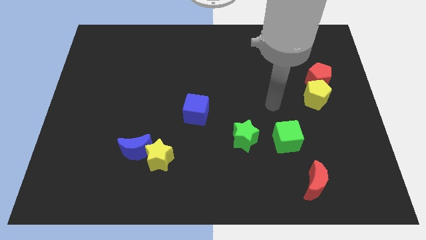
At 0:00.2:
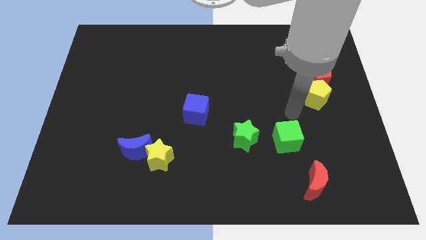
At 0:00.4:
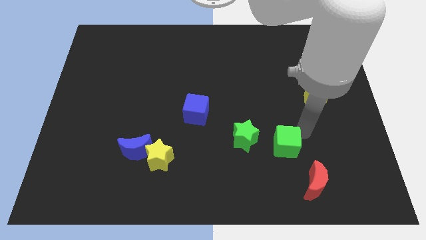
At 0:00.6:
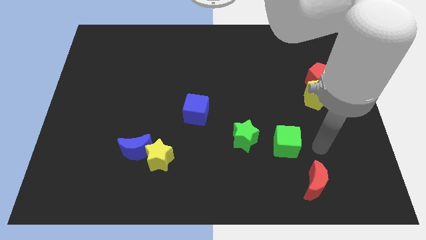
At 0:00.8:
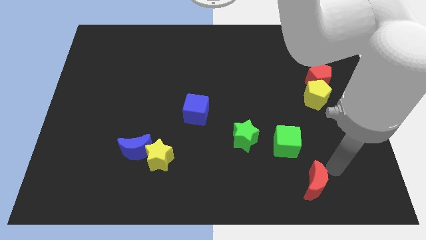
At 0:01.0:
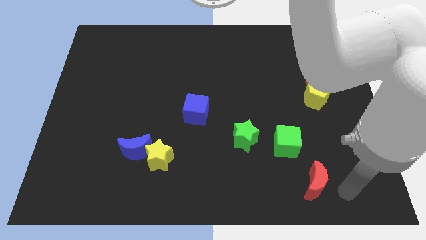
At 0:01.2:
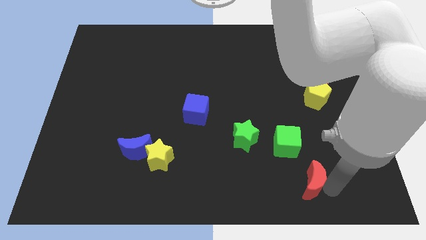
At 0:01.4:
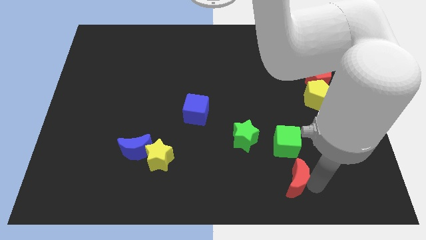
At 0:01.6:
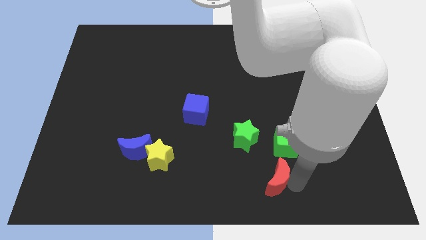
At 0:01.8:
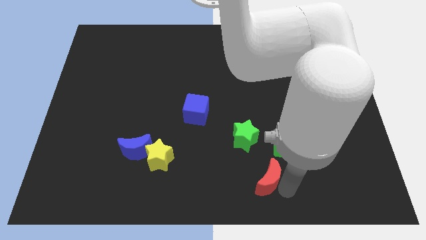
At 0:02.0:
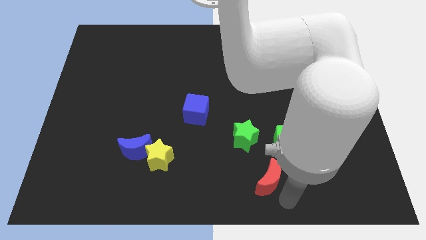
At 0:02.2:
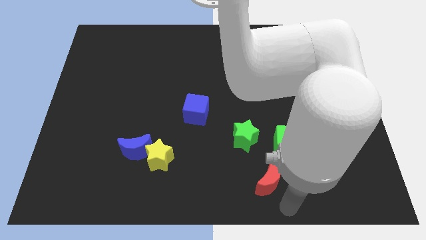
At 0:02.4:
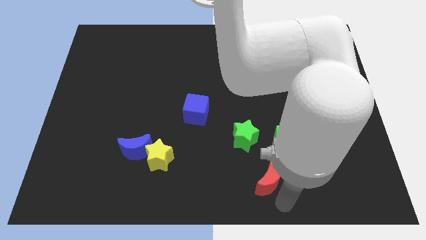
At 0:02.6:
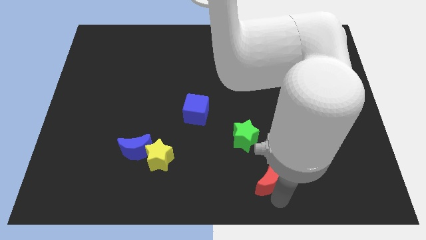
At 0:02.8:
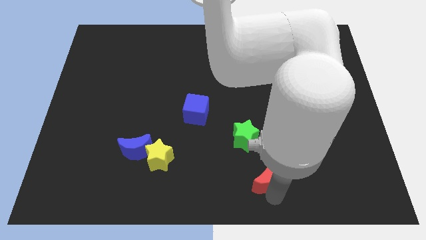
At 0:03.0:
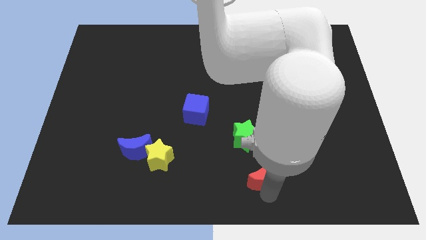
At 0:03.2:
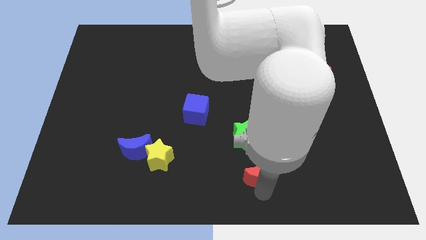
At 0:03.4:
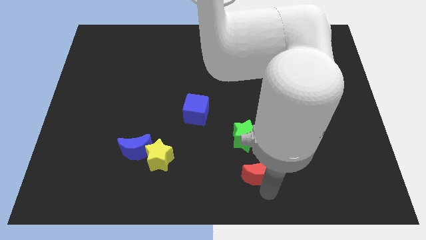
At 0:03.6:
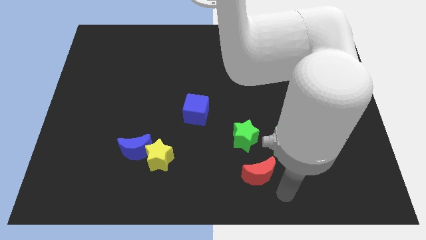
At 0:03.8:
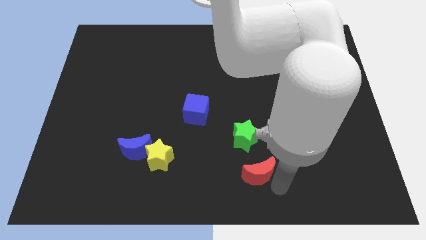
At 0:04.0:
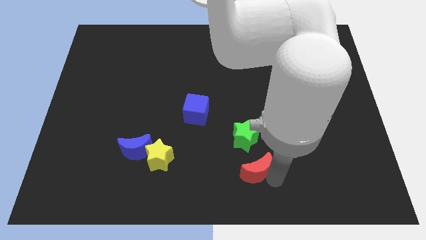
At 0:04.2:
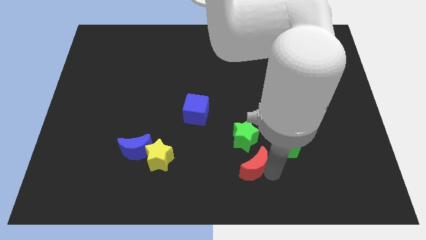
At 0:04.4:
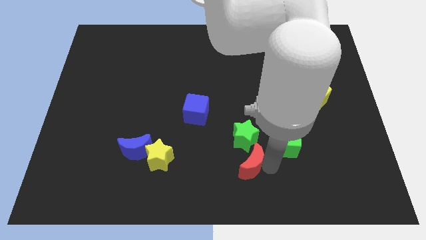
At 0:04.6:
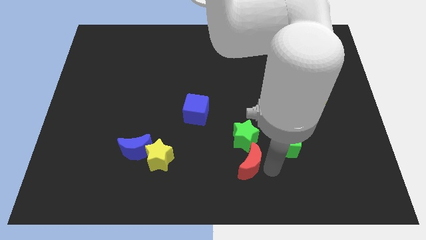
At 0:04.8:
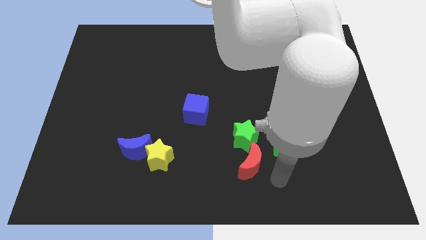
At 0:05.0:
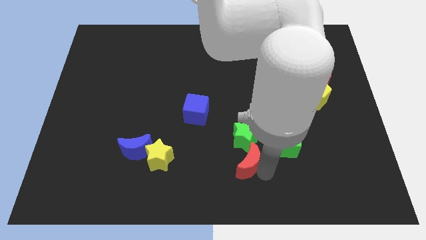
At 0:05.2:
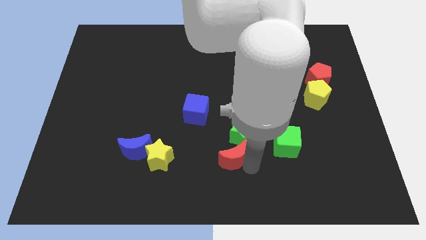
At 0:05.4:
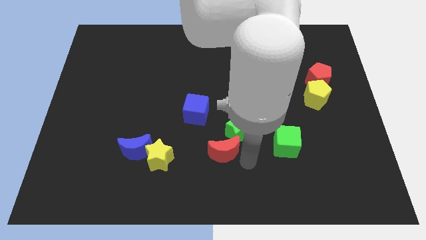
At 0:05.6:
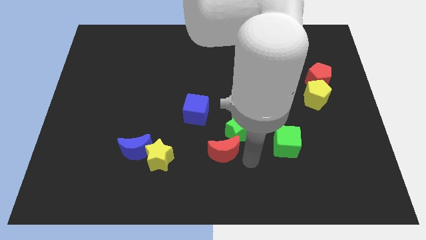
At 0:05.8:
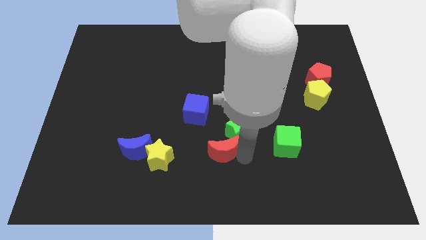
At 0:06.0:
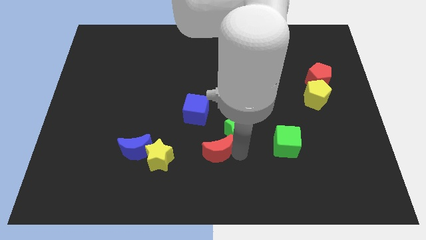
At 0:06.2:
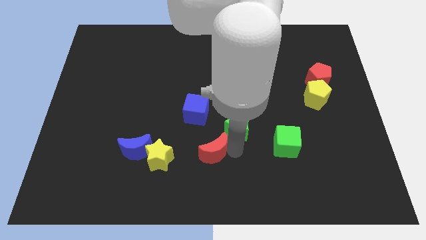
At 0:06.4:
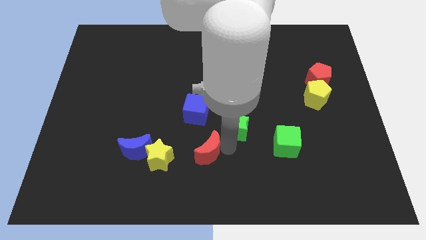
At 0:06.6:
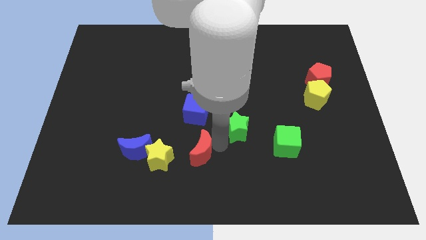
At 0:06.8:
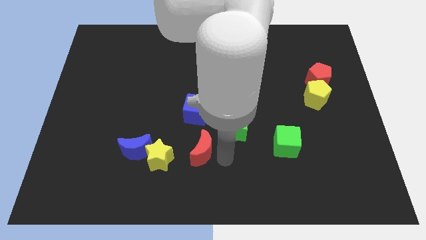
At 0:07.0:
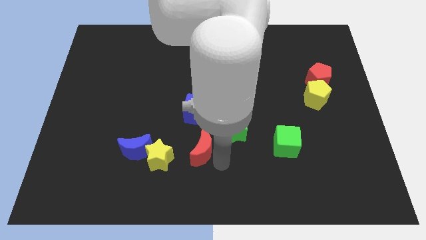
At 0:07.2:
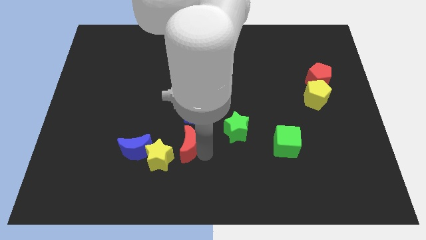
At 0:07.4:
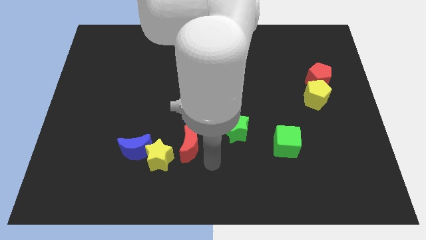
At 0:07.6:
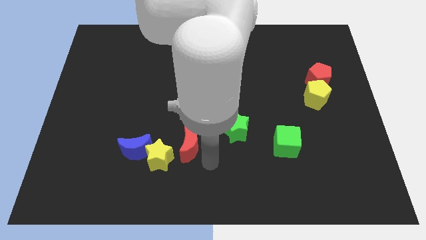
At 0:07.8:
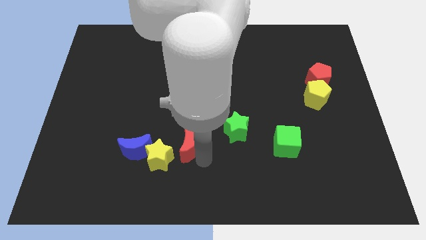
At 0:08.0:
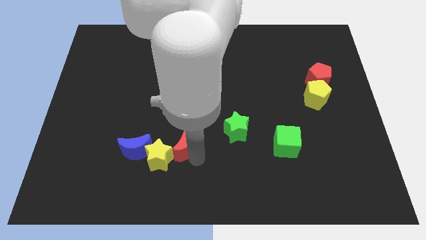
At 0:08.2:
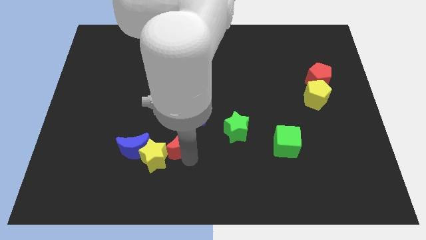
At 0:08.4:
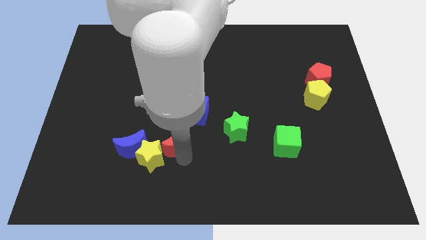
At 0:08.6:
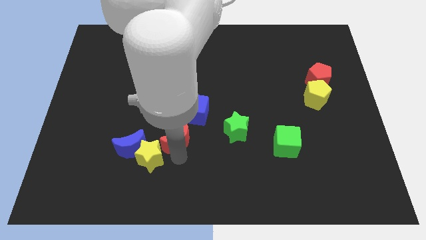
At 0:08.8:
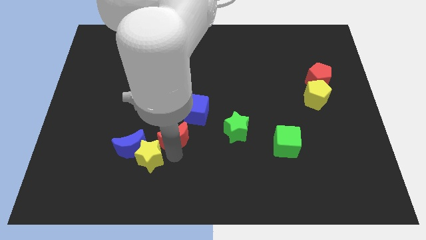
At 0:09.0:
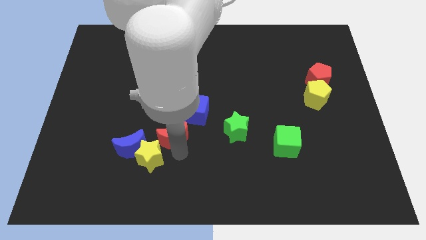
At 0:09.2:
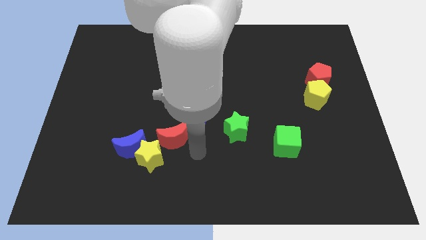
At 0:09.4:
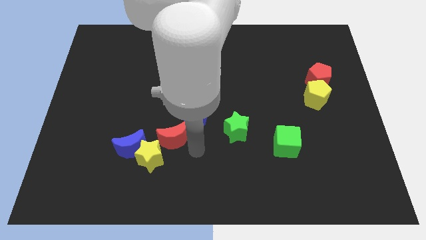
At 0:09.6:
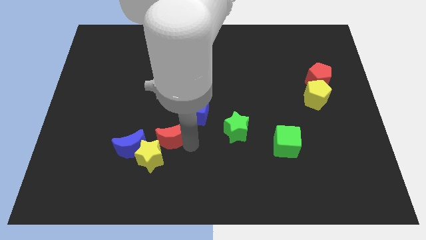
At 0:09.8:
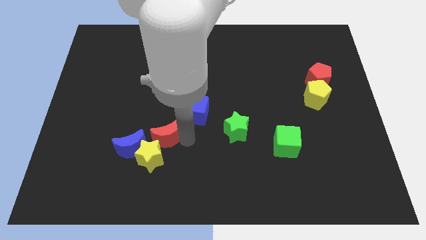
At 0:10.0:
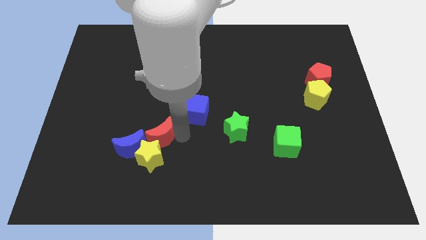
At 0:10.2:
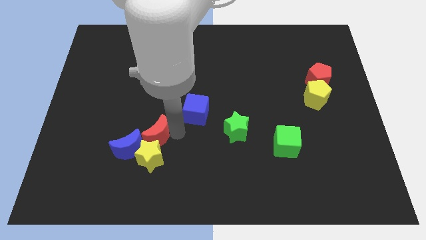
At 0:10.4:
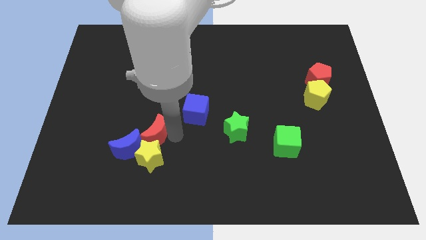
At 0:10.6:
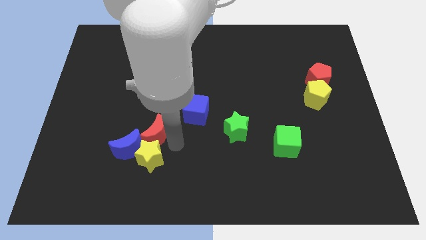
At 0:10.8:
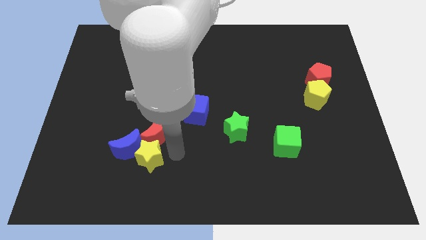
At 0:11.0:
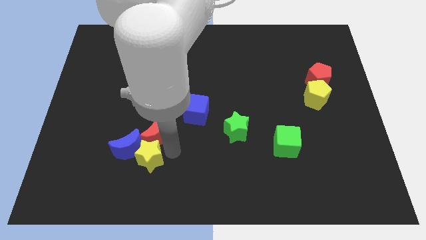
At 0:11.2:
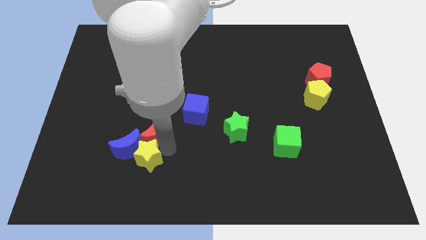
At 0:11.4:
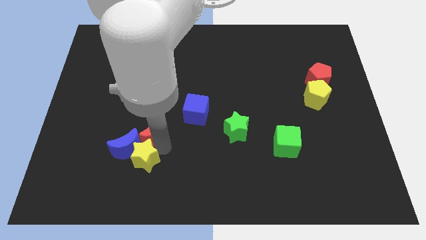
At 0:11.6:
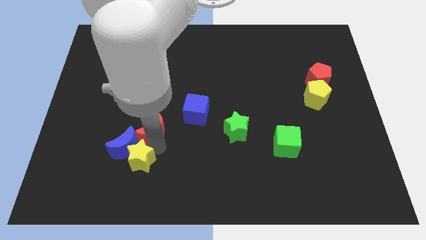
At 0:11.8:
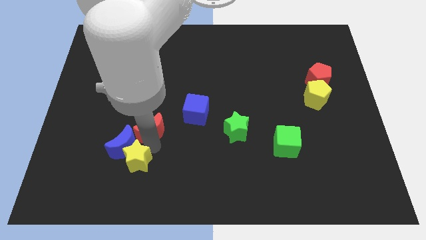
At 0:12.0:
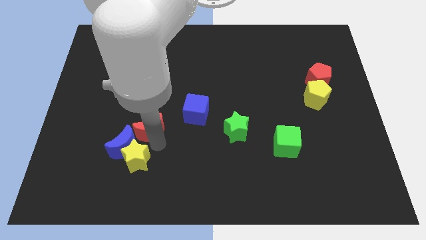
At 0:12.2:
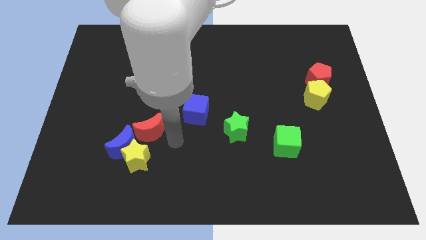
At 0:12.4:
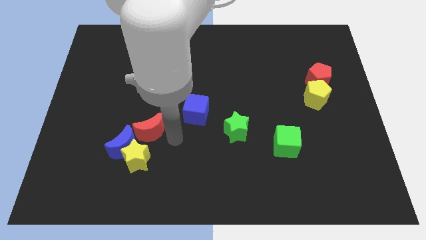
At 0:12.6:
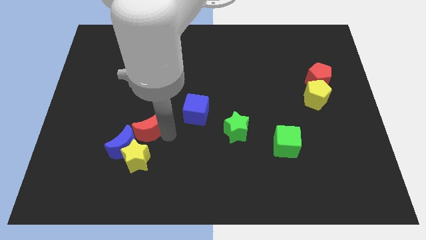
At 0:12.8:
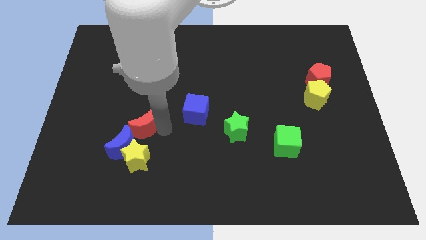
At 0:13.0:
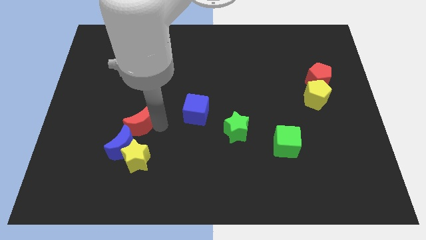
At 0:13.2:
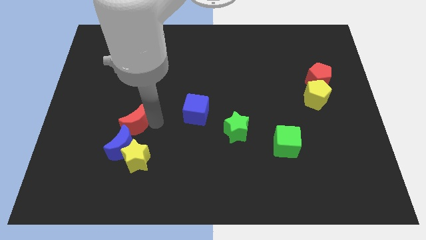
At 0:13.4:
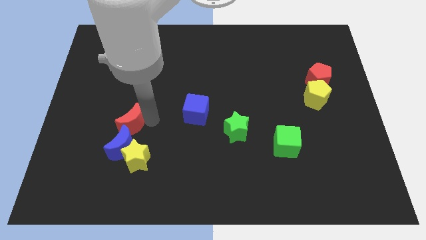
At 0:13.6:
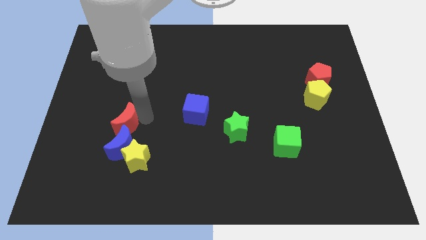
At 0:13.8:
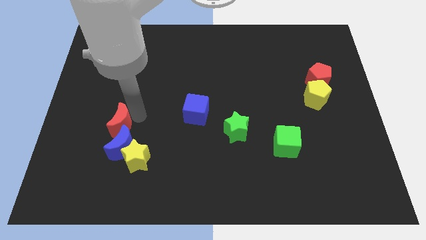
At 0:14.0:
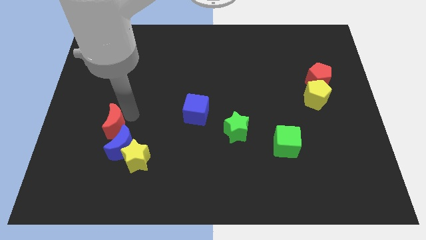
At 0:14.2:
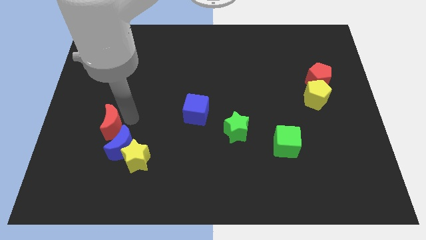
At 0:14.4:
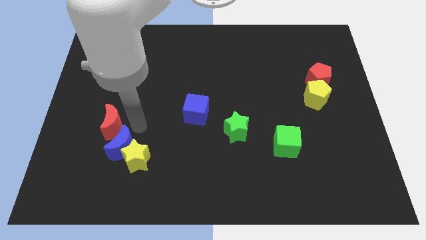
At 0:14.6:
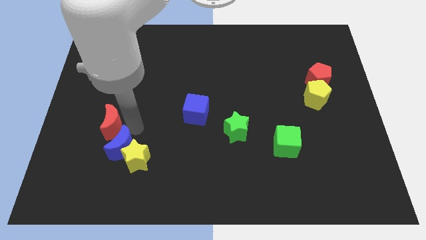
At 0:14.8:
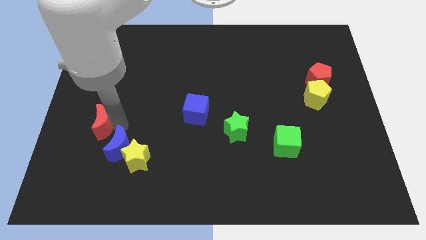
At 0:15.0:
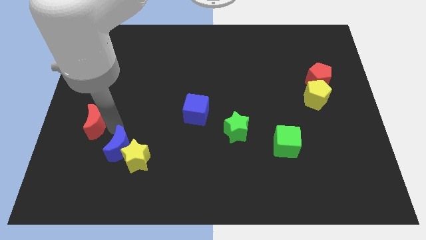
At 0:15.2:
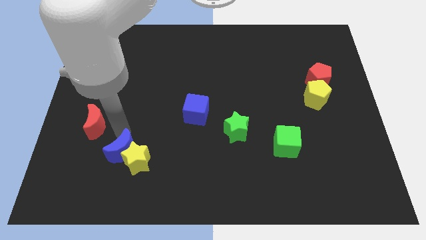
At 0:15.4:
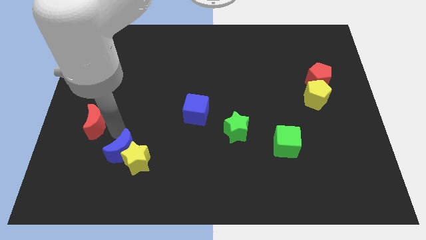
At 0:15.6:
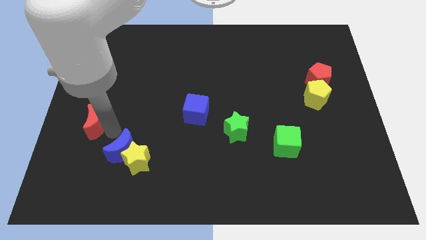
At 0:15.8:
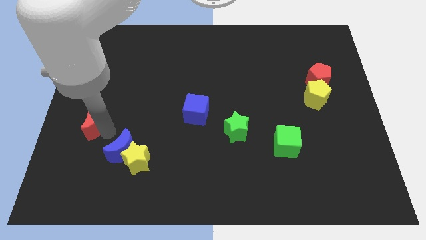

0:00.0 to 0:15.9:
move the red moon to the center left
